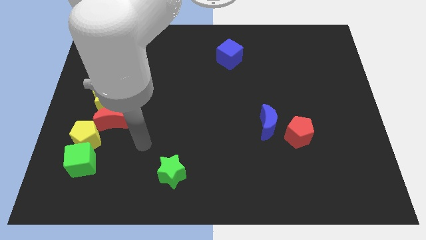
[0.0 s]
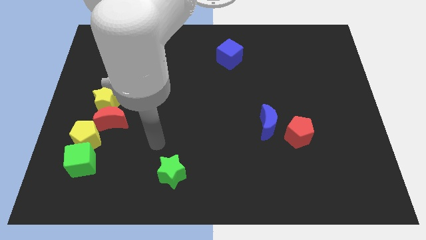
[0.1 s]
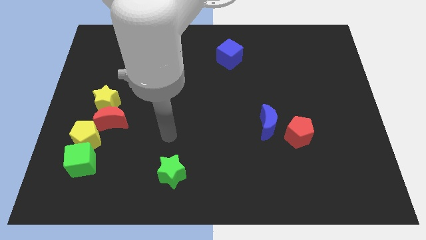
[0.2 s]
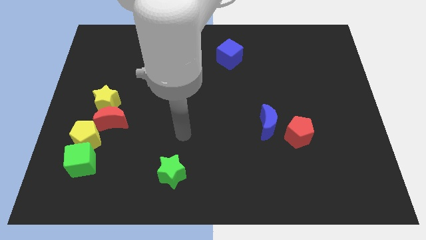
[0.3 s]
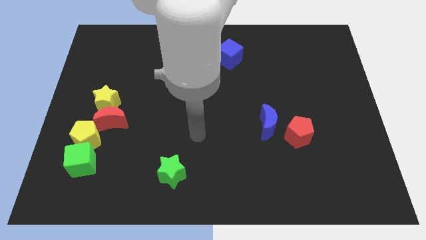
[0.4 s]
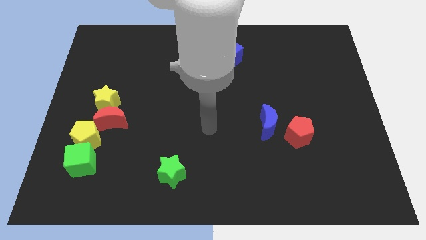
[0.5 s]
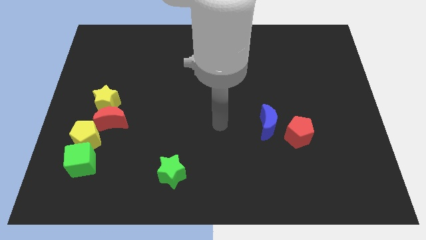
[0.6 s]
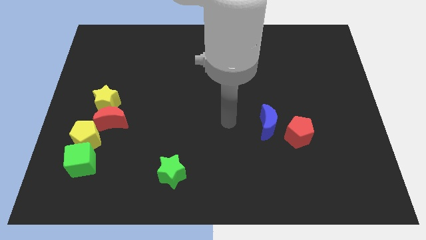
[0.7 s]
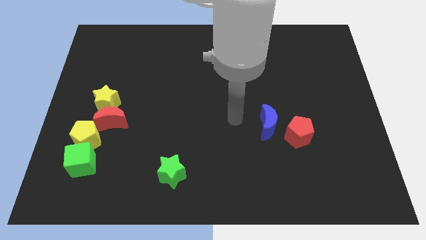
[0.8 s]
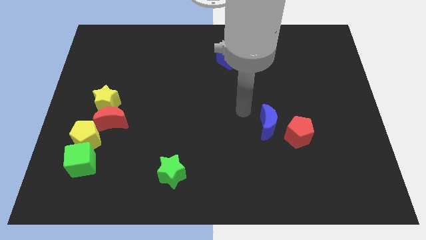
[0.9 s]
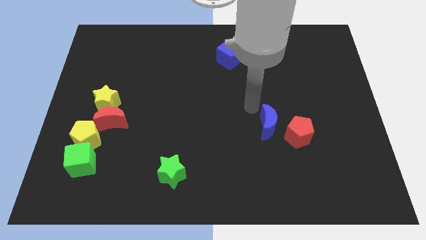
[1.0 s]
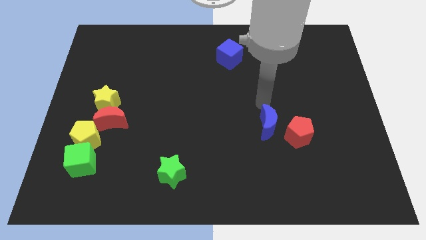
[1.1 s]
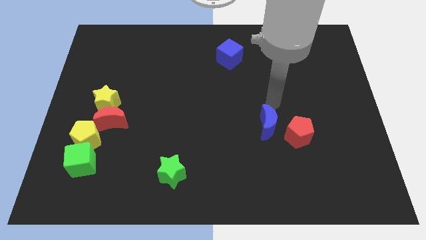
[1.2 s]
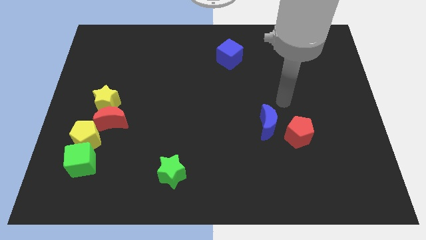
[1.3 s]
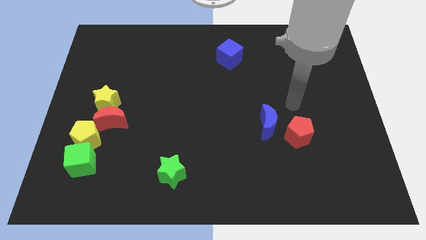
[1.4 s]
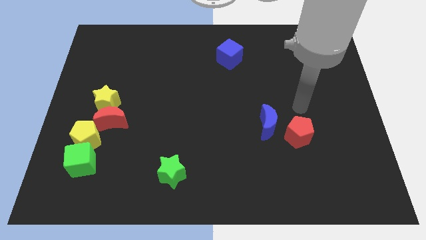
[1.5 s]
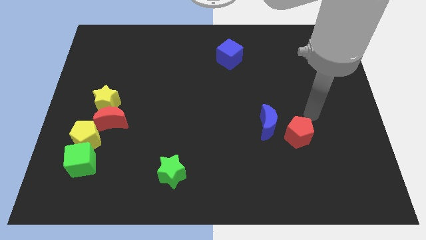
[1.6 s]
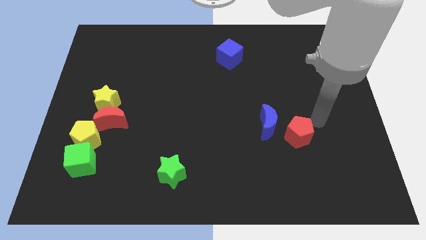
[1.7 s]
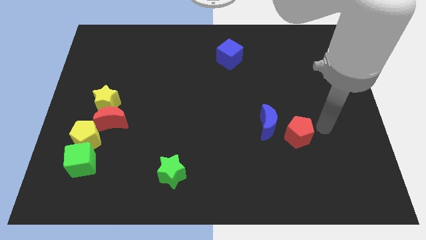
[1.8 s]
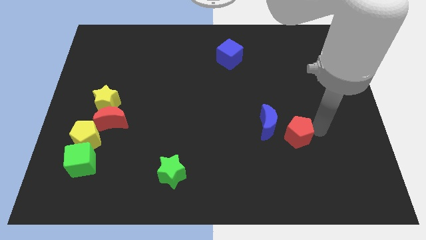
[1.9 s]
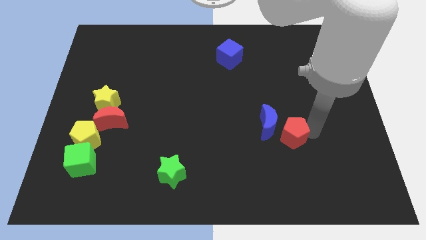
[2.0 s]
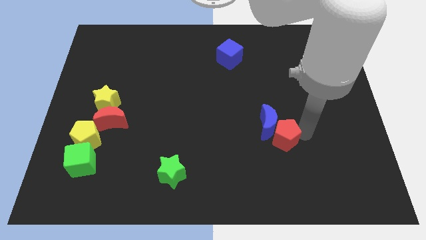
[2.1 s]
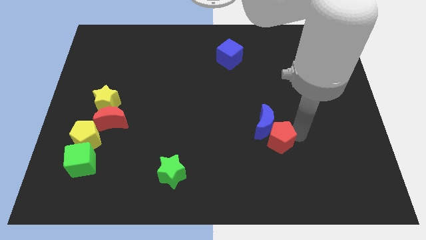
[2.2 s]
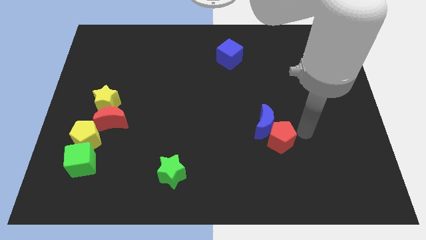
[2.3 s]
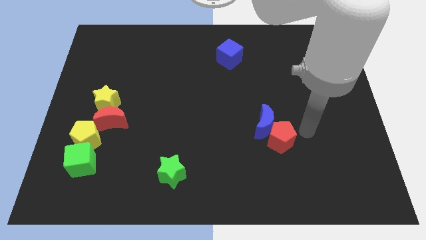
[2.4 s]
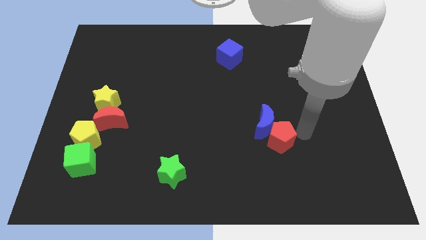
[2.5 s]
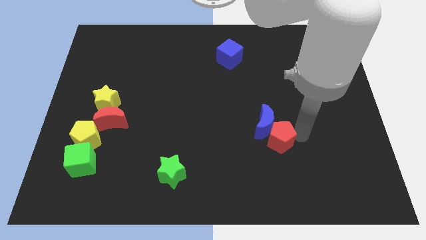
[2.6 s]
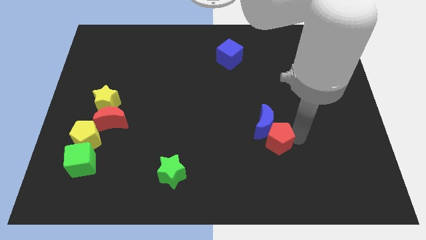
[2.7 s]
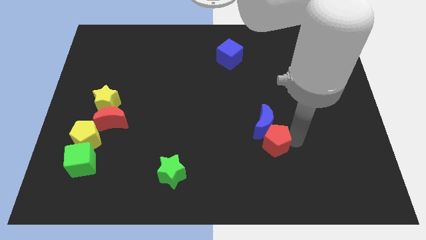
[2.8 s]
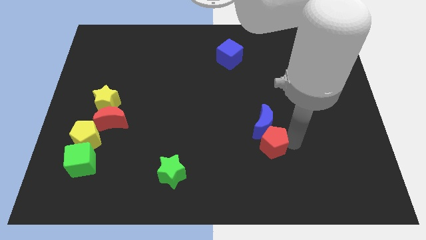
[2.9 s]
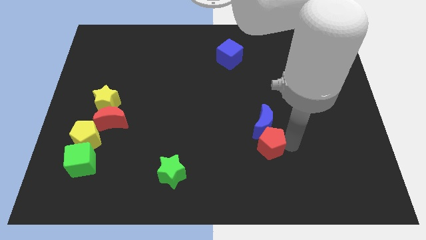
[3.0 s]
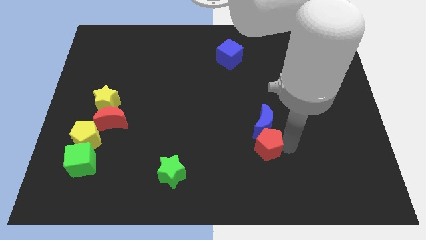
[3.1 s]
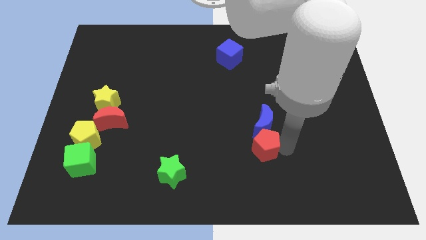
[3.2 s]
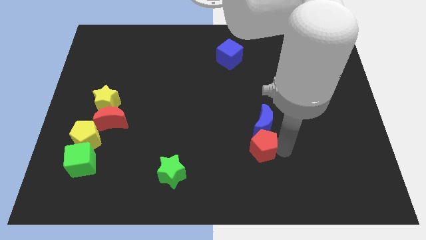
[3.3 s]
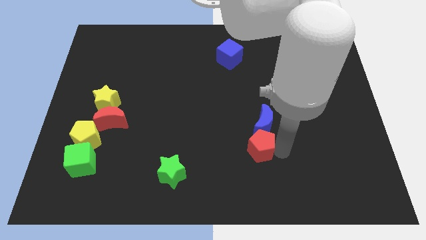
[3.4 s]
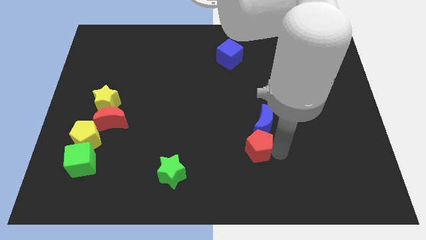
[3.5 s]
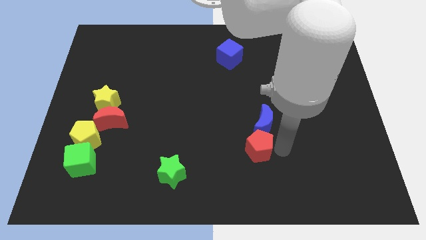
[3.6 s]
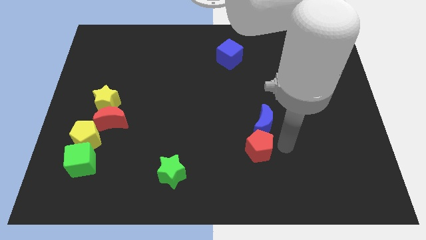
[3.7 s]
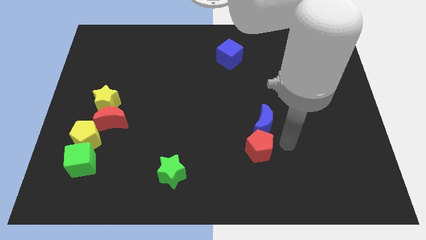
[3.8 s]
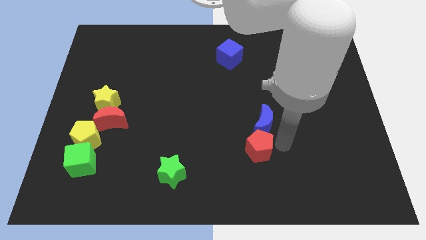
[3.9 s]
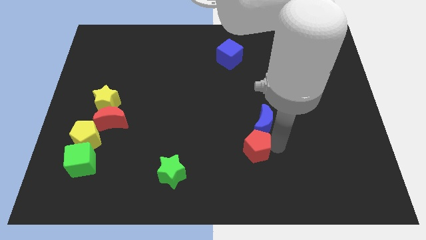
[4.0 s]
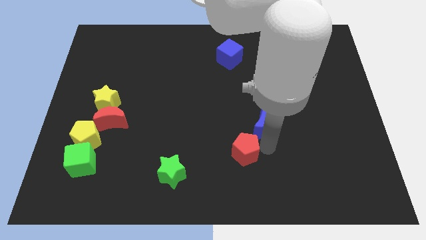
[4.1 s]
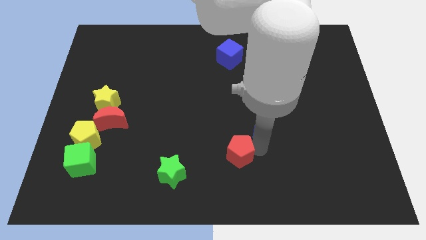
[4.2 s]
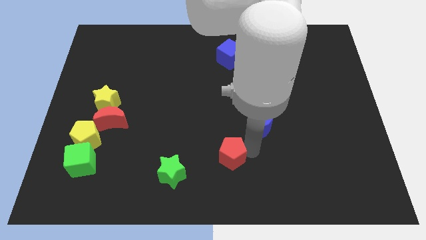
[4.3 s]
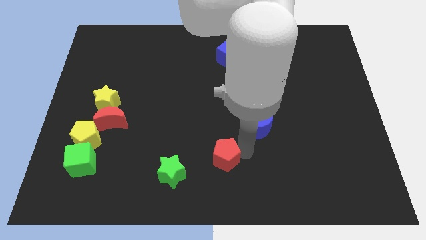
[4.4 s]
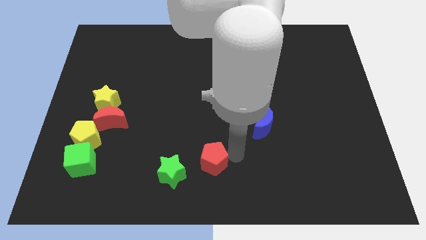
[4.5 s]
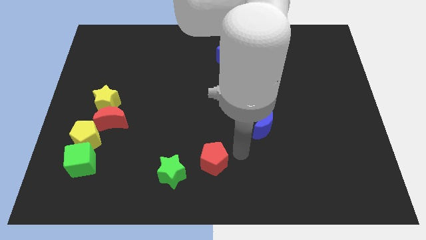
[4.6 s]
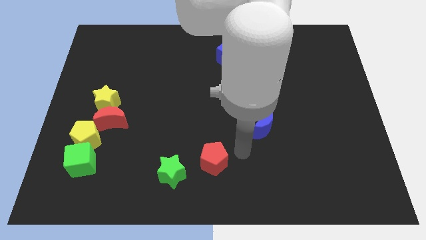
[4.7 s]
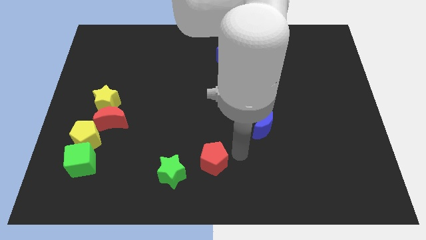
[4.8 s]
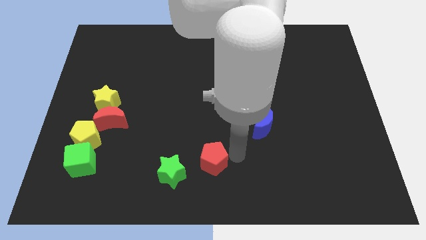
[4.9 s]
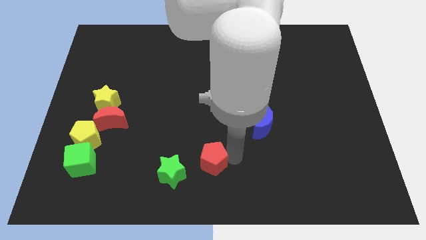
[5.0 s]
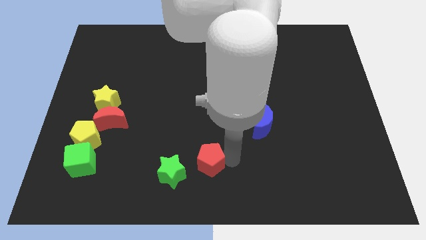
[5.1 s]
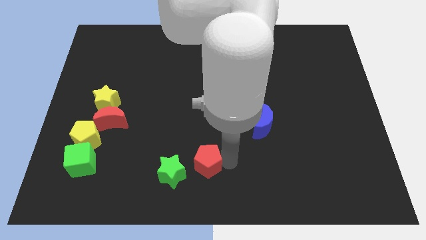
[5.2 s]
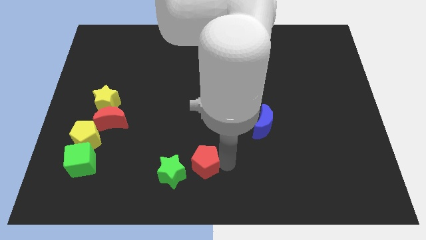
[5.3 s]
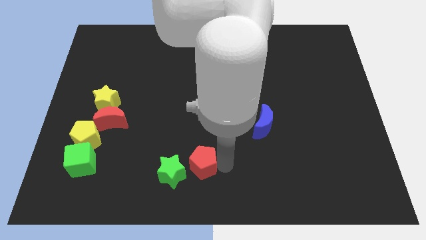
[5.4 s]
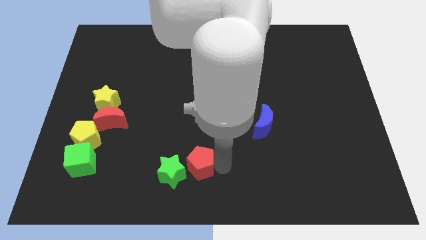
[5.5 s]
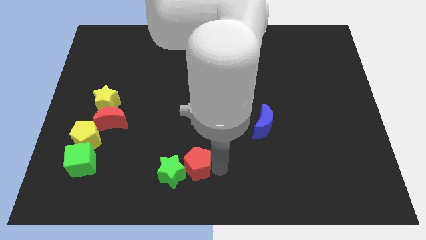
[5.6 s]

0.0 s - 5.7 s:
slide the red pentagon close to the green star

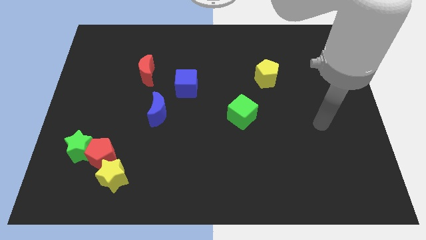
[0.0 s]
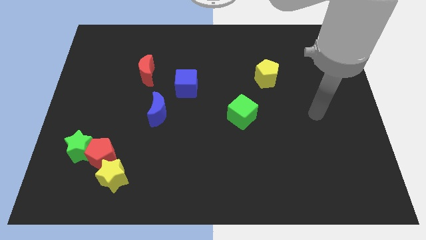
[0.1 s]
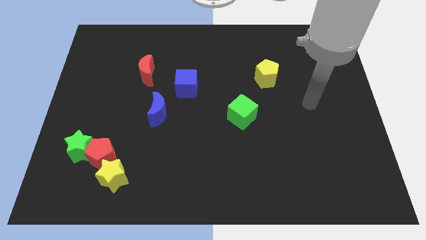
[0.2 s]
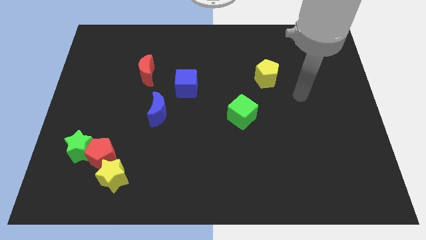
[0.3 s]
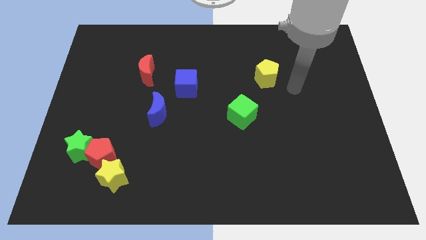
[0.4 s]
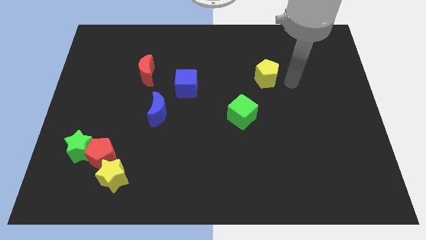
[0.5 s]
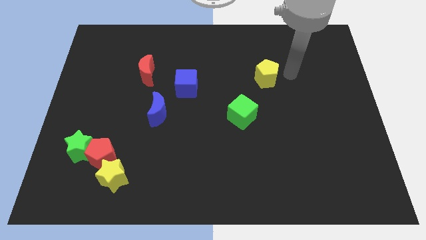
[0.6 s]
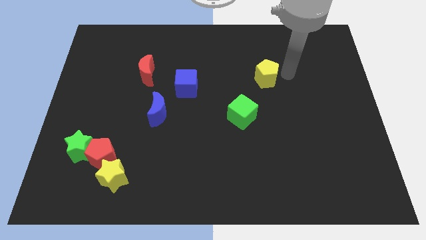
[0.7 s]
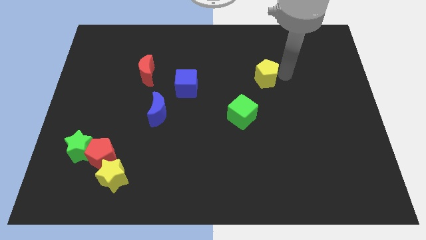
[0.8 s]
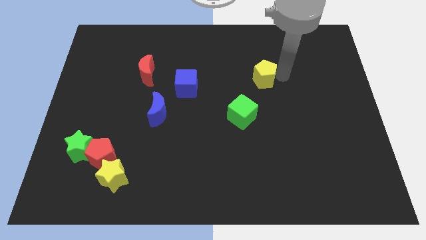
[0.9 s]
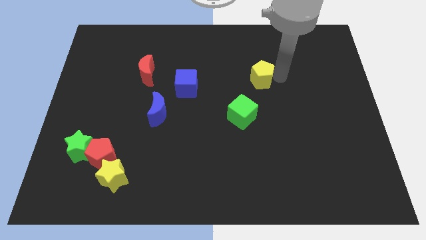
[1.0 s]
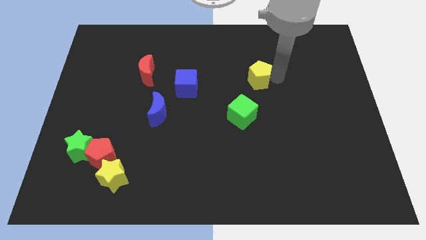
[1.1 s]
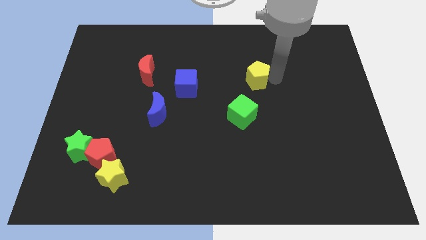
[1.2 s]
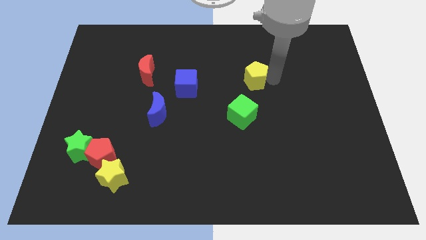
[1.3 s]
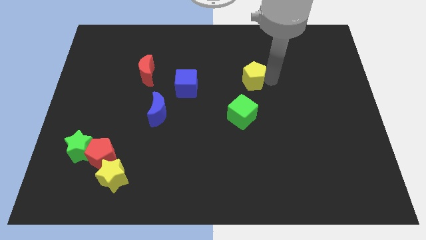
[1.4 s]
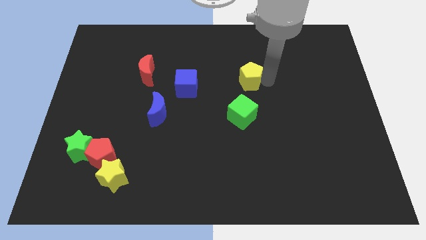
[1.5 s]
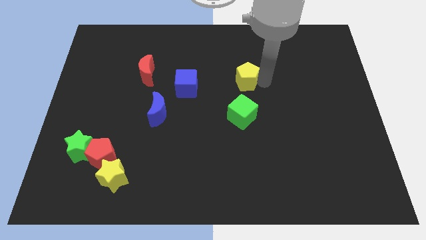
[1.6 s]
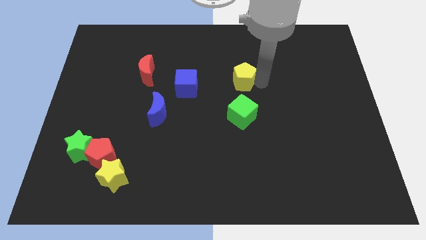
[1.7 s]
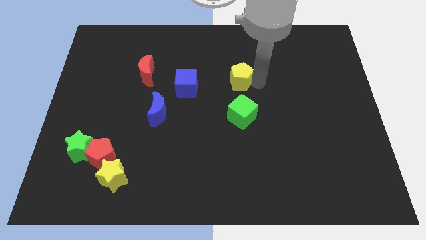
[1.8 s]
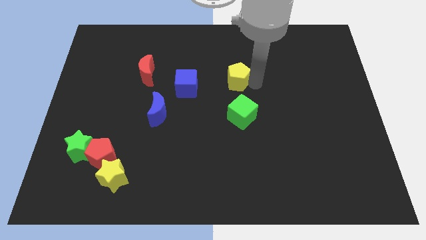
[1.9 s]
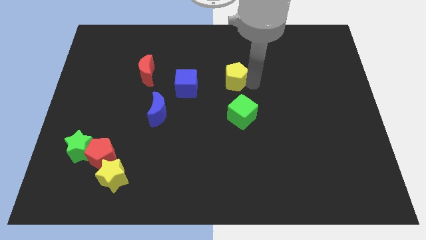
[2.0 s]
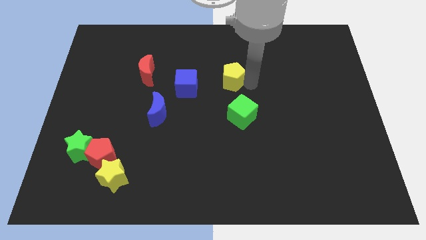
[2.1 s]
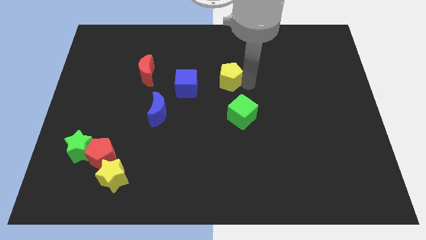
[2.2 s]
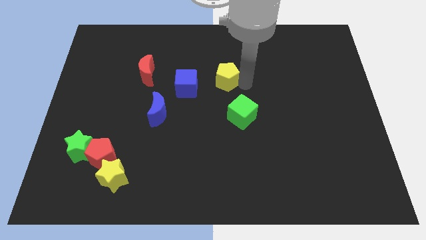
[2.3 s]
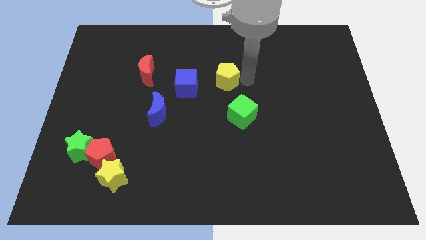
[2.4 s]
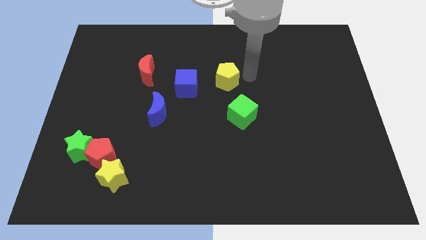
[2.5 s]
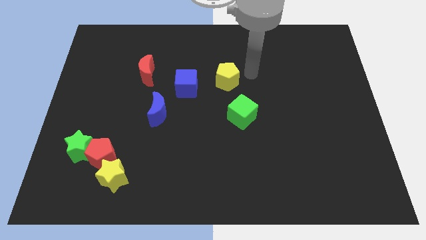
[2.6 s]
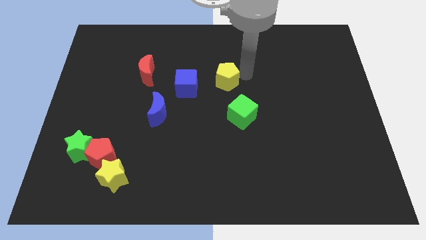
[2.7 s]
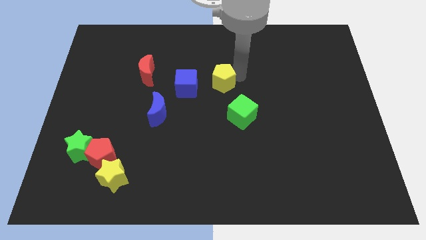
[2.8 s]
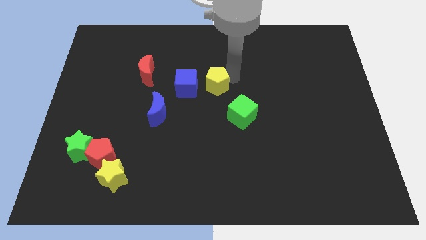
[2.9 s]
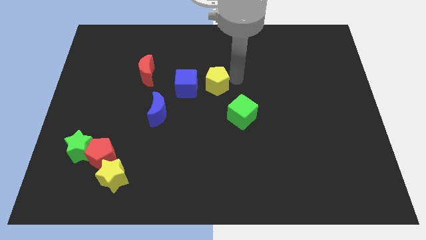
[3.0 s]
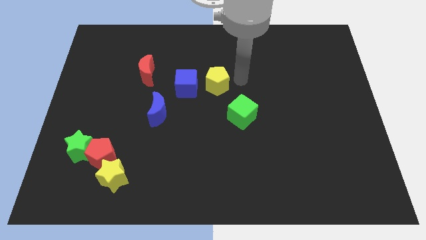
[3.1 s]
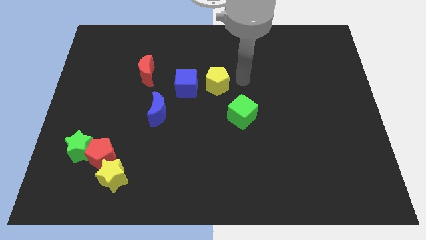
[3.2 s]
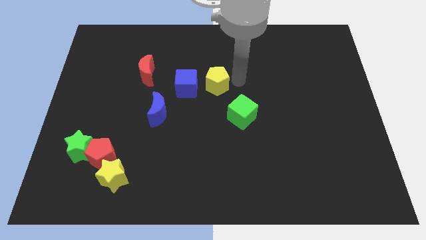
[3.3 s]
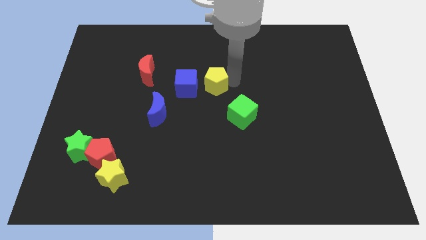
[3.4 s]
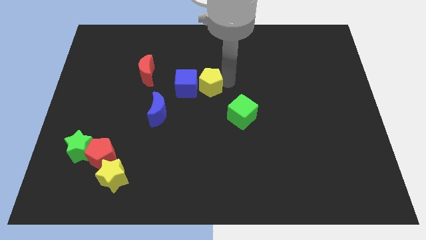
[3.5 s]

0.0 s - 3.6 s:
move the yellow pentagon next to the blue cube
